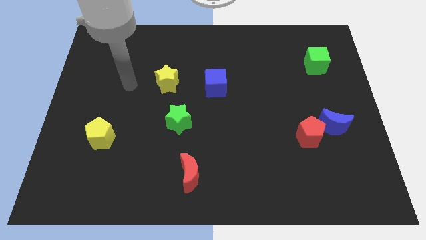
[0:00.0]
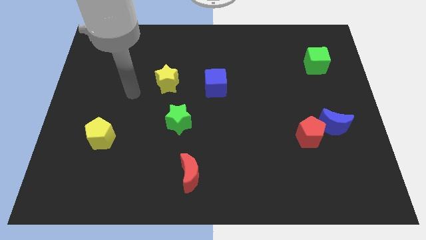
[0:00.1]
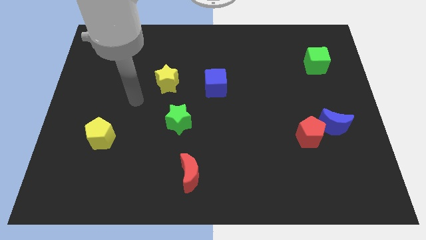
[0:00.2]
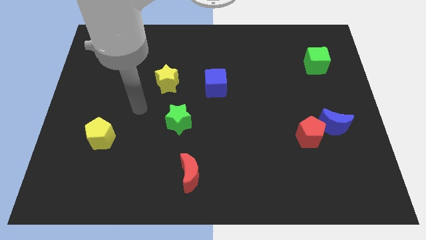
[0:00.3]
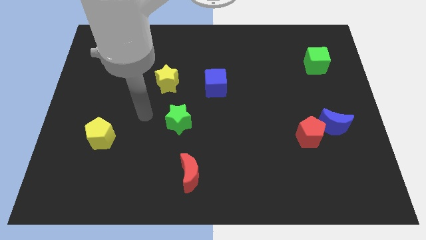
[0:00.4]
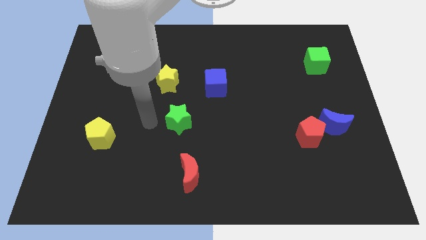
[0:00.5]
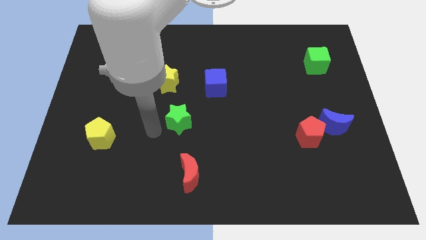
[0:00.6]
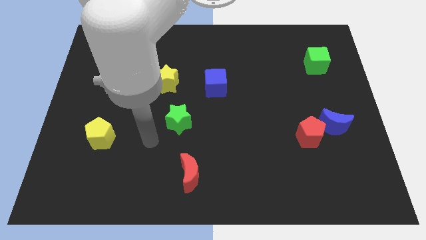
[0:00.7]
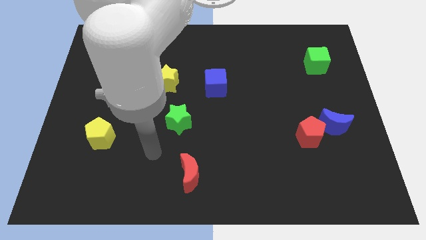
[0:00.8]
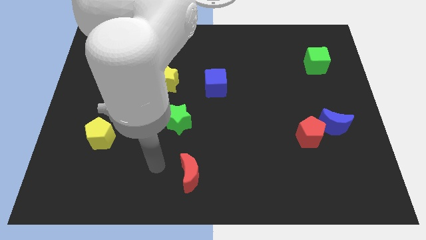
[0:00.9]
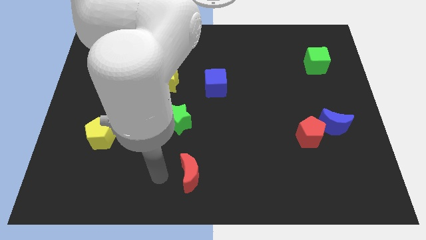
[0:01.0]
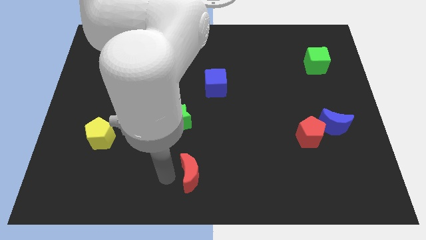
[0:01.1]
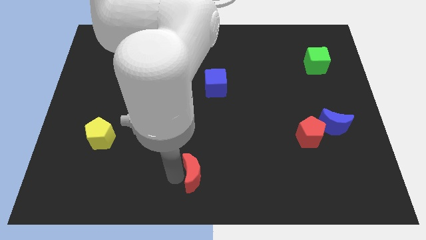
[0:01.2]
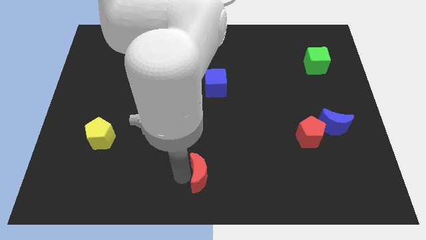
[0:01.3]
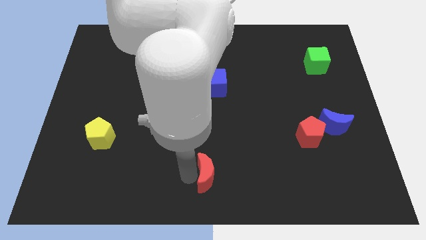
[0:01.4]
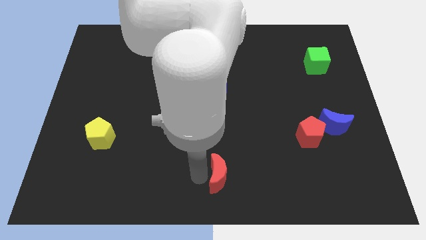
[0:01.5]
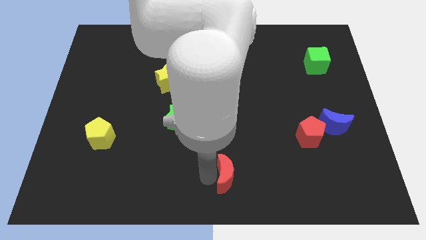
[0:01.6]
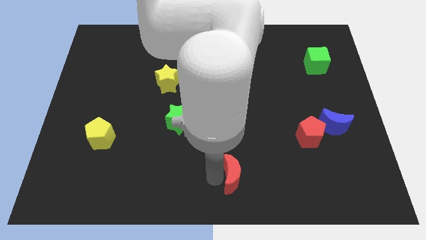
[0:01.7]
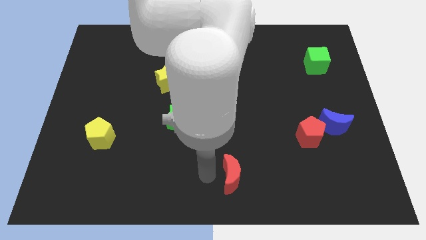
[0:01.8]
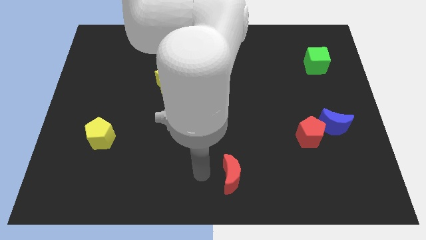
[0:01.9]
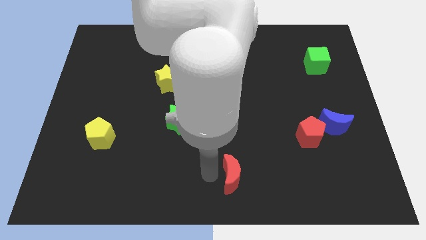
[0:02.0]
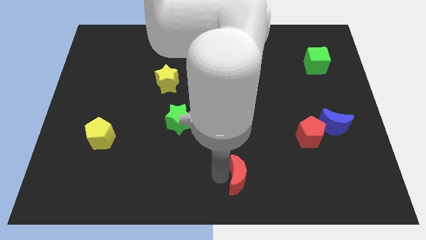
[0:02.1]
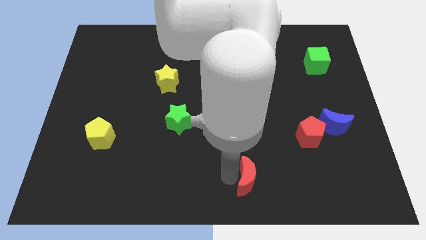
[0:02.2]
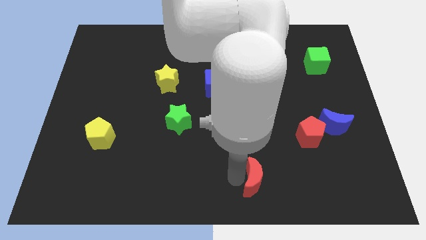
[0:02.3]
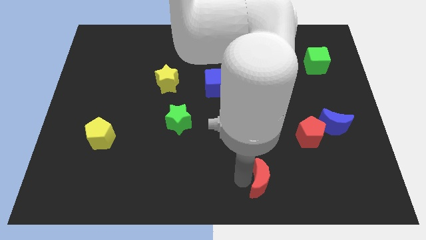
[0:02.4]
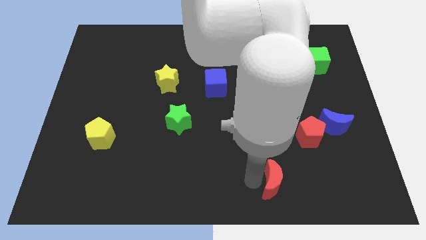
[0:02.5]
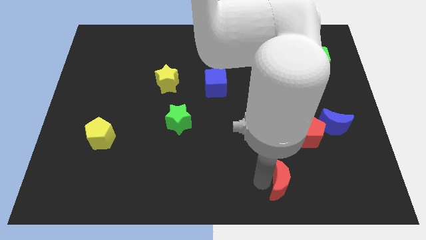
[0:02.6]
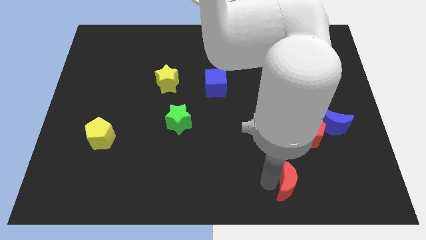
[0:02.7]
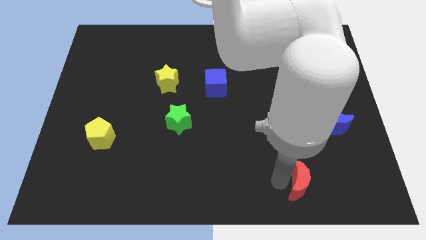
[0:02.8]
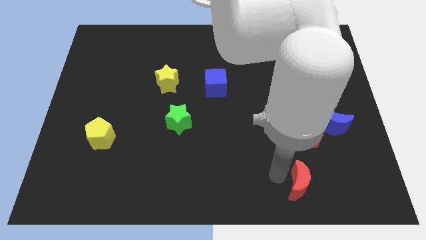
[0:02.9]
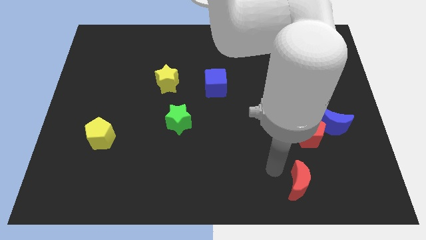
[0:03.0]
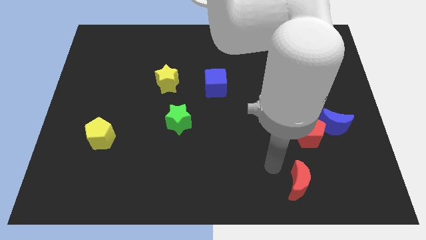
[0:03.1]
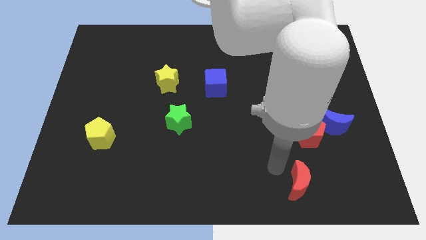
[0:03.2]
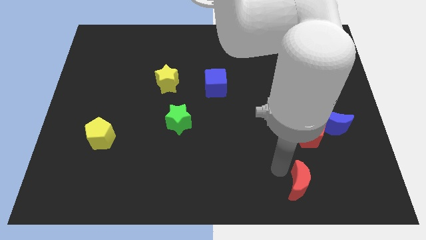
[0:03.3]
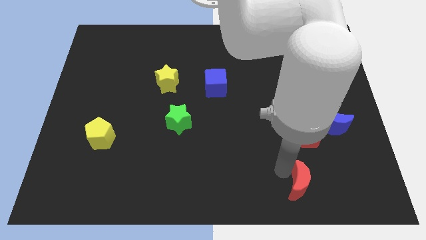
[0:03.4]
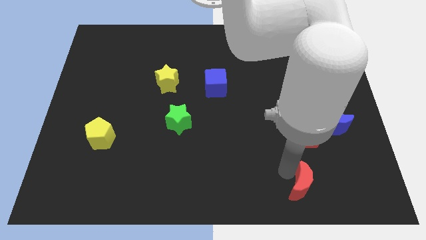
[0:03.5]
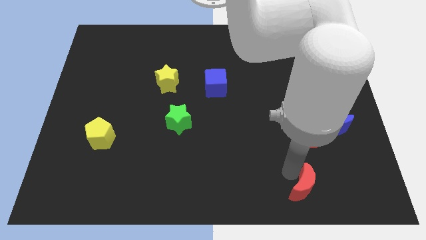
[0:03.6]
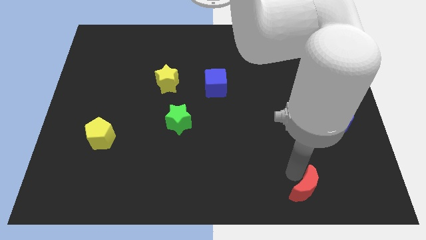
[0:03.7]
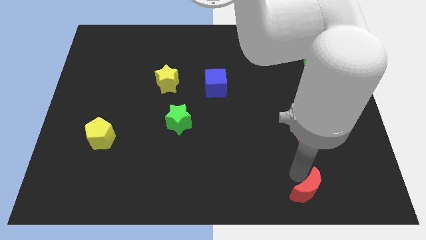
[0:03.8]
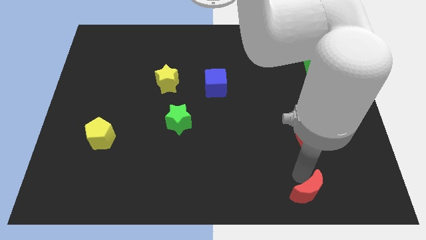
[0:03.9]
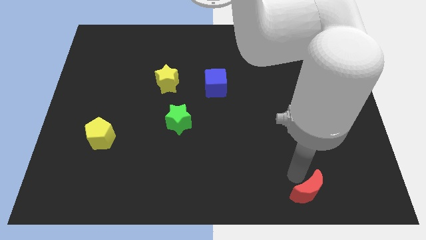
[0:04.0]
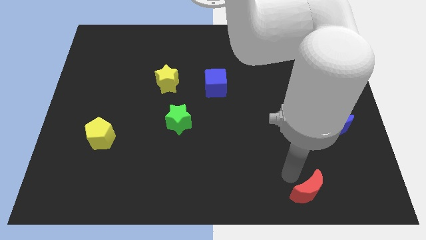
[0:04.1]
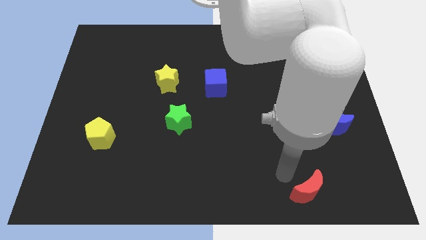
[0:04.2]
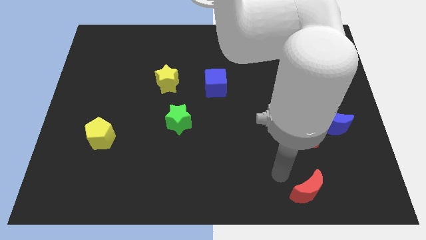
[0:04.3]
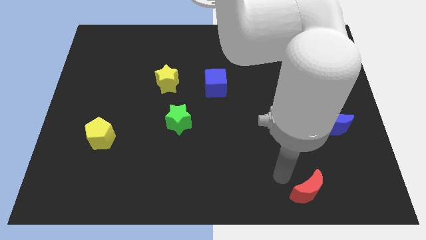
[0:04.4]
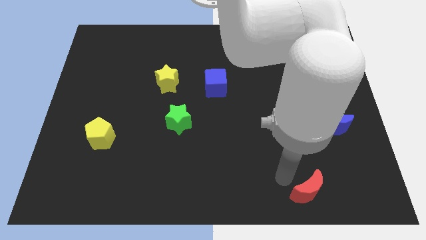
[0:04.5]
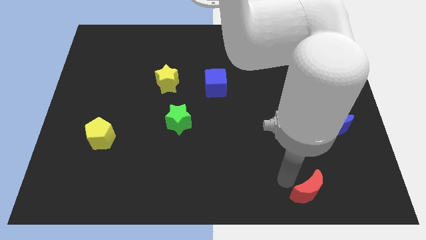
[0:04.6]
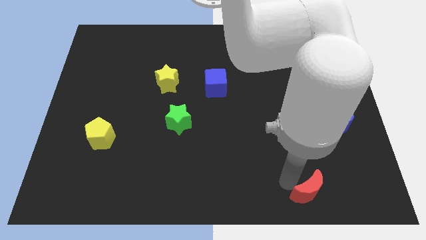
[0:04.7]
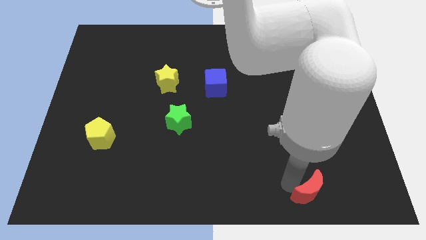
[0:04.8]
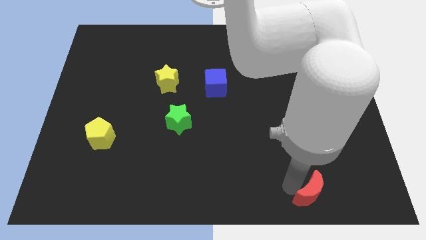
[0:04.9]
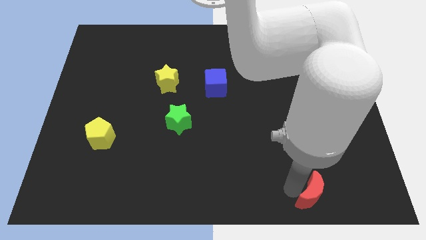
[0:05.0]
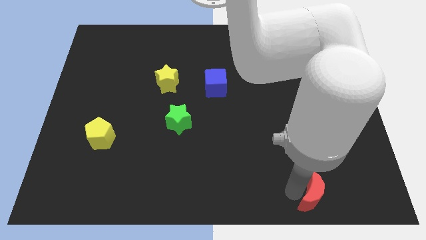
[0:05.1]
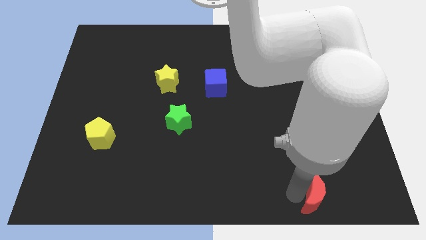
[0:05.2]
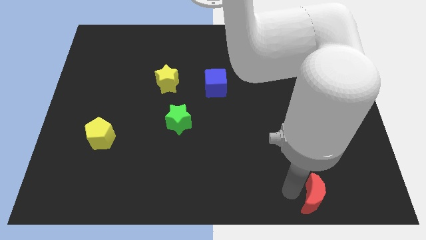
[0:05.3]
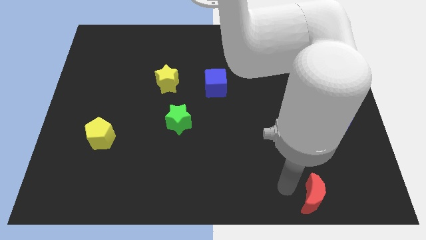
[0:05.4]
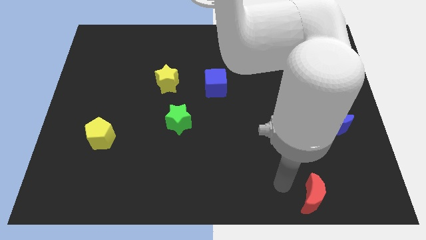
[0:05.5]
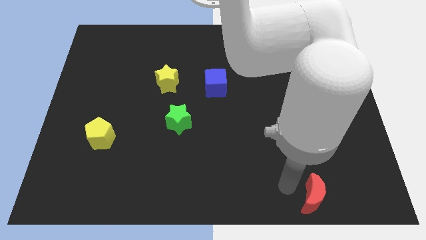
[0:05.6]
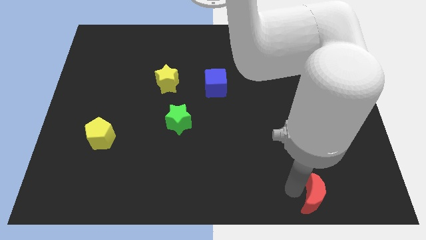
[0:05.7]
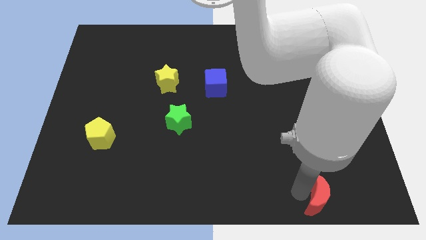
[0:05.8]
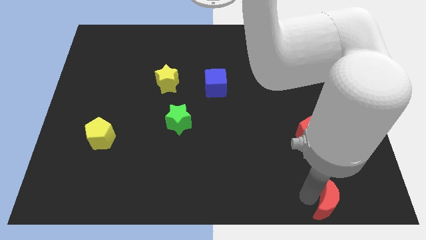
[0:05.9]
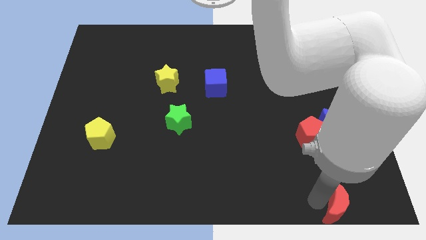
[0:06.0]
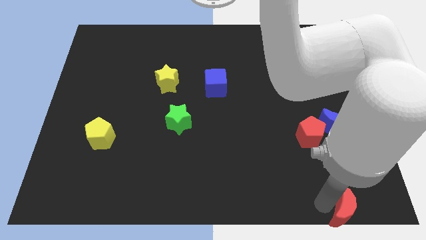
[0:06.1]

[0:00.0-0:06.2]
push the red moon to the bottom right

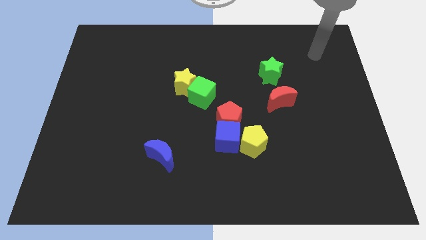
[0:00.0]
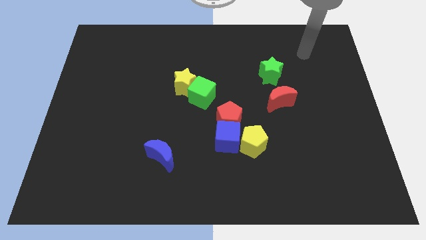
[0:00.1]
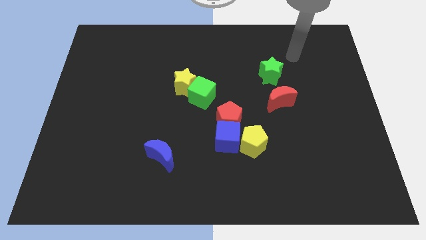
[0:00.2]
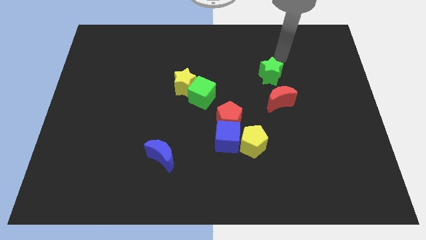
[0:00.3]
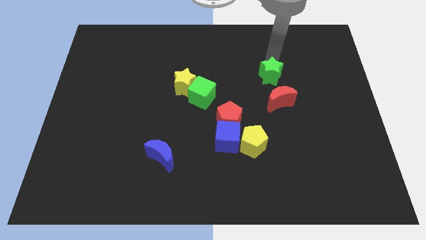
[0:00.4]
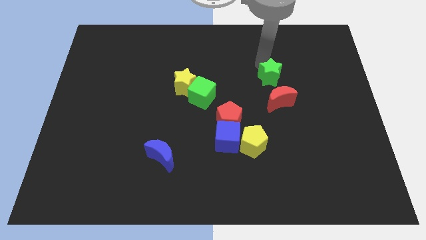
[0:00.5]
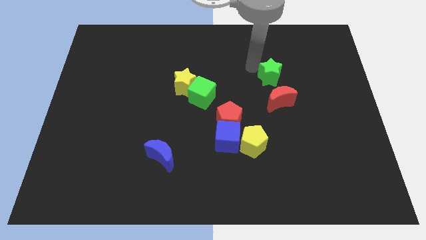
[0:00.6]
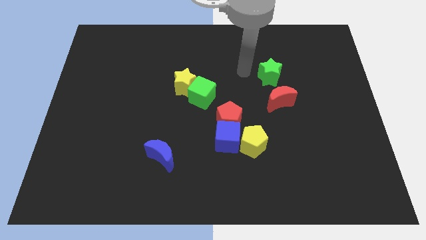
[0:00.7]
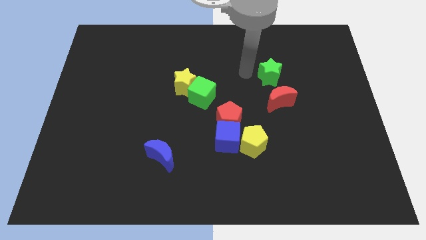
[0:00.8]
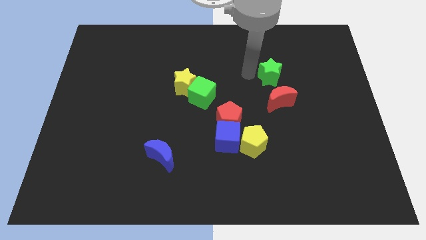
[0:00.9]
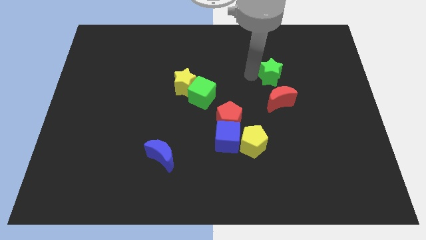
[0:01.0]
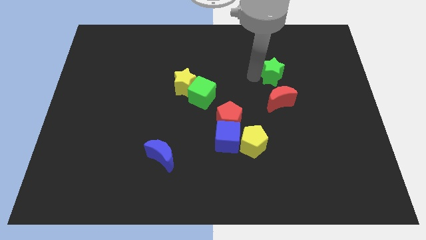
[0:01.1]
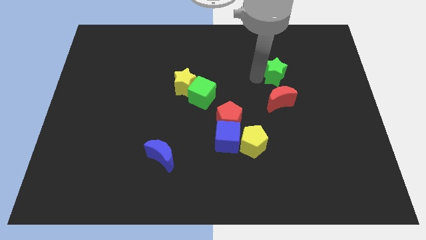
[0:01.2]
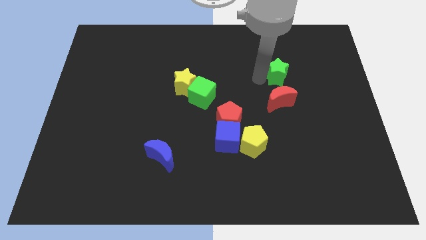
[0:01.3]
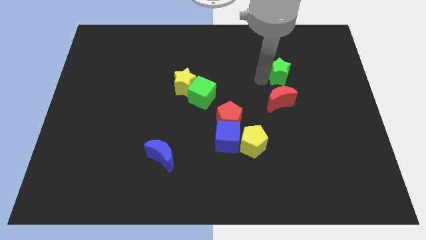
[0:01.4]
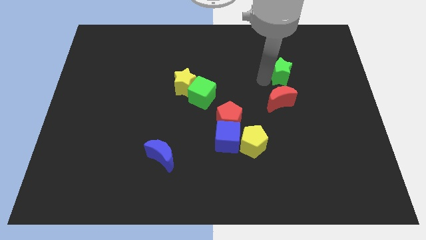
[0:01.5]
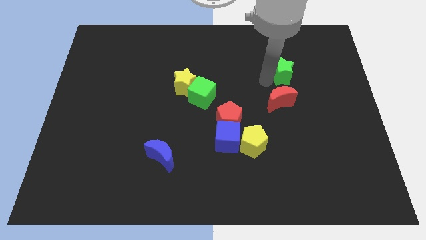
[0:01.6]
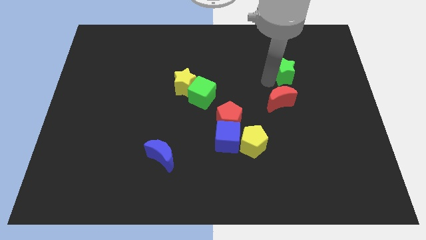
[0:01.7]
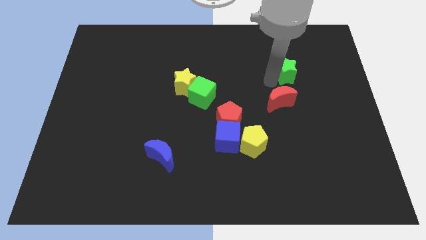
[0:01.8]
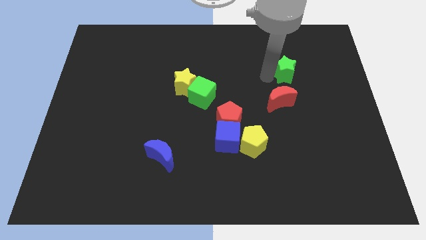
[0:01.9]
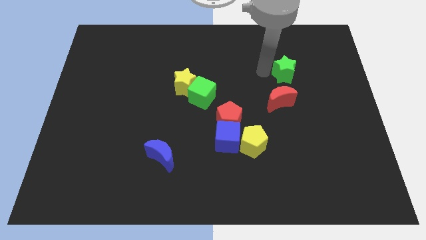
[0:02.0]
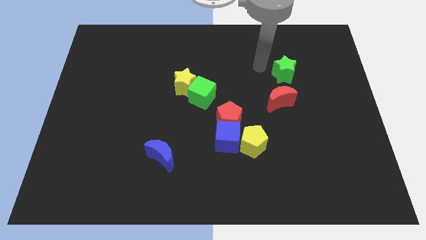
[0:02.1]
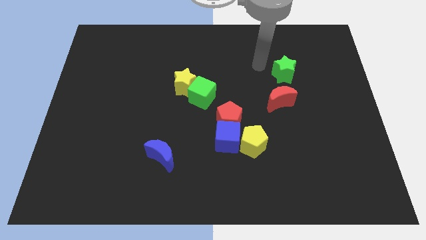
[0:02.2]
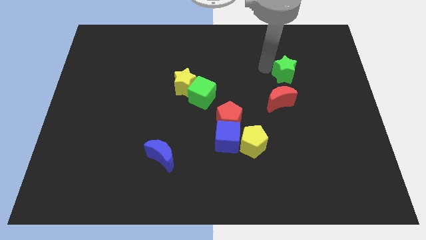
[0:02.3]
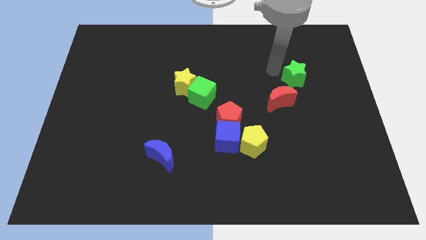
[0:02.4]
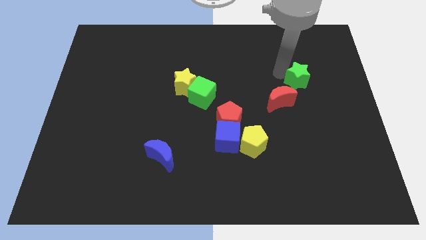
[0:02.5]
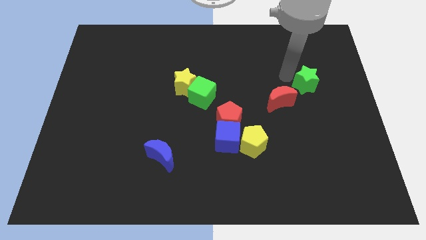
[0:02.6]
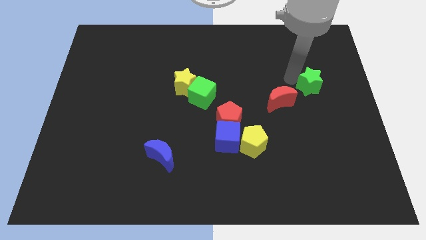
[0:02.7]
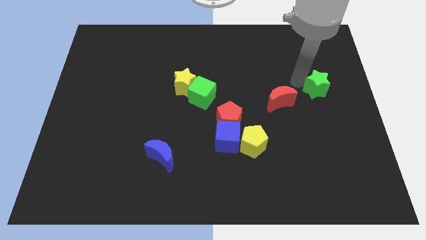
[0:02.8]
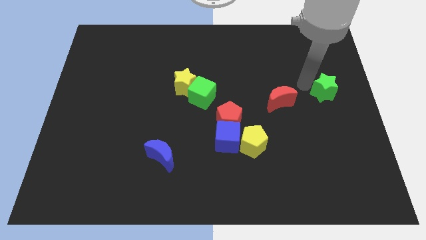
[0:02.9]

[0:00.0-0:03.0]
move the green star to the center right
